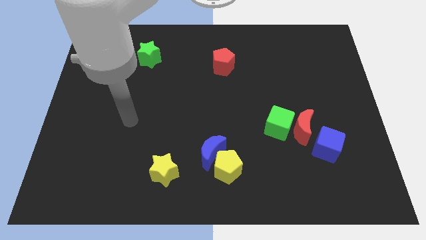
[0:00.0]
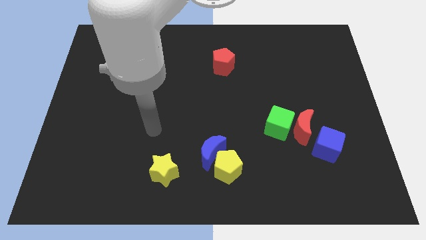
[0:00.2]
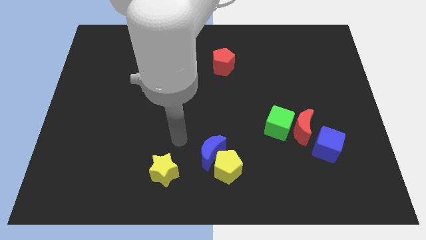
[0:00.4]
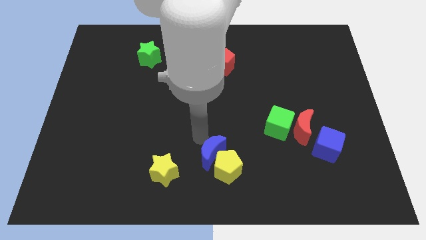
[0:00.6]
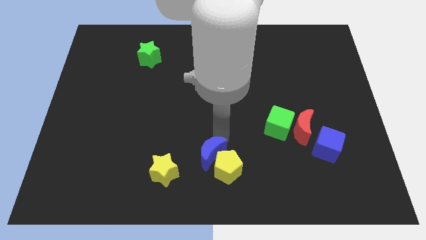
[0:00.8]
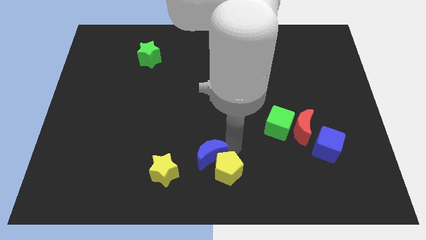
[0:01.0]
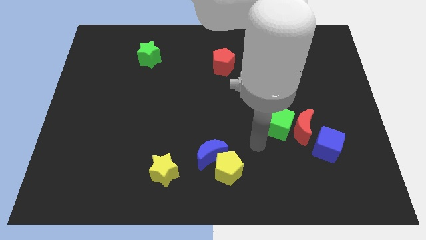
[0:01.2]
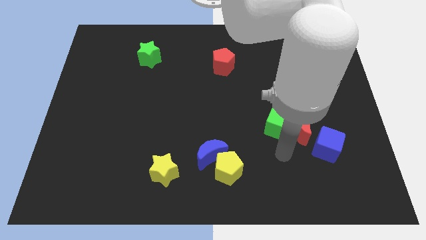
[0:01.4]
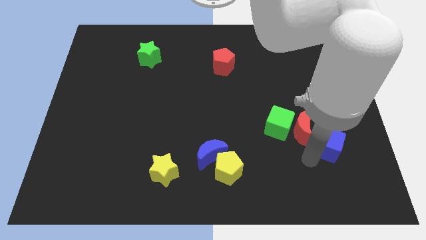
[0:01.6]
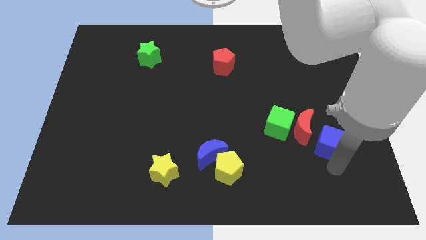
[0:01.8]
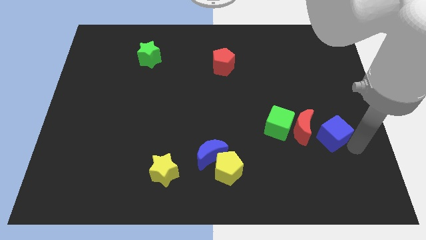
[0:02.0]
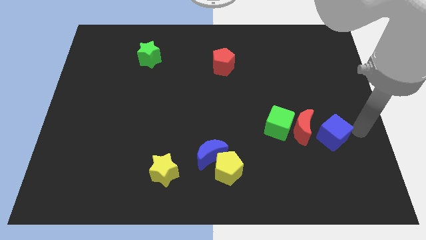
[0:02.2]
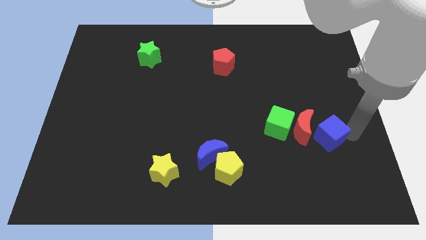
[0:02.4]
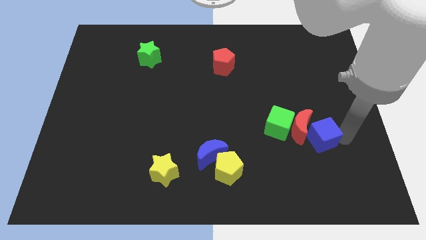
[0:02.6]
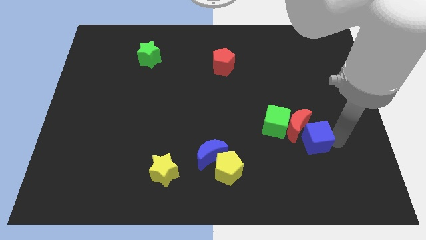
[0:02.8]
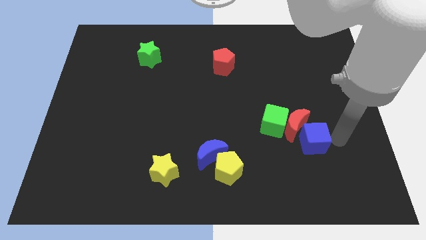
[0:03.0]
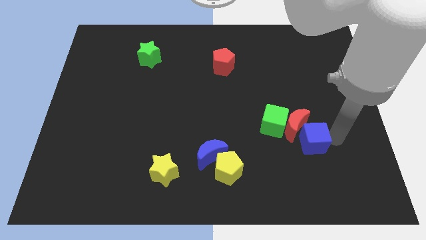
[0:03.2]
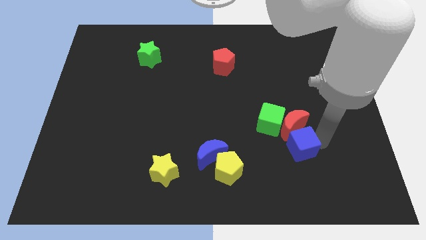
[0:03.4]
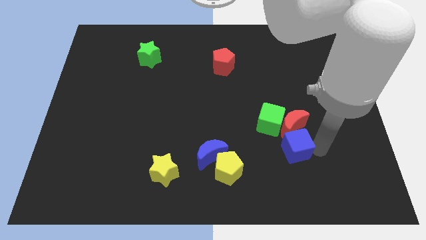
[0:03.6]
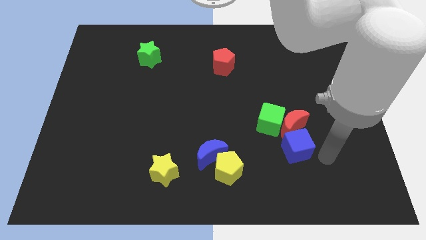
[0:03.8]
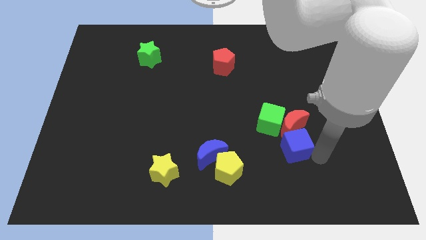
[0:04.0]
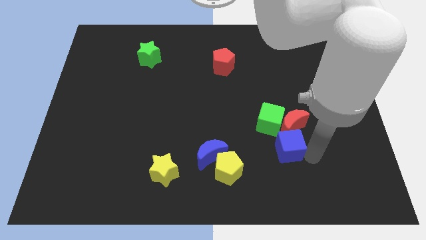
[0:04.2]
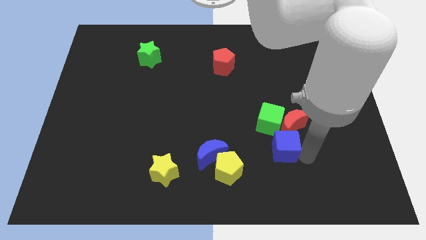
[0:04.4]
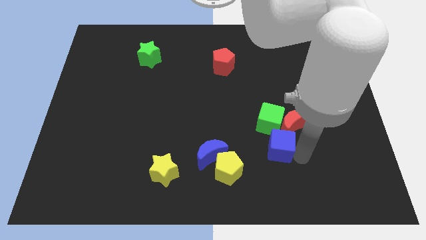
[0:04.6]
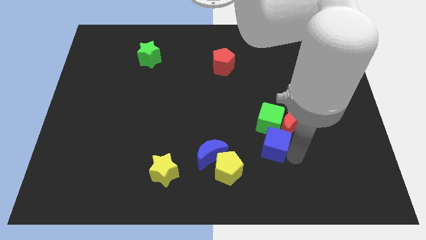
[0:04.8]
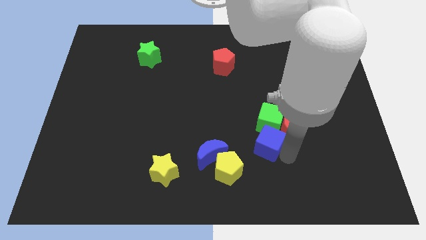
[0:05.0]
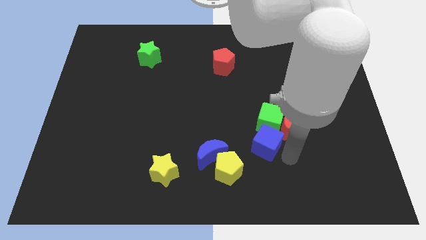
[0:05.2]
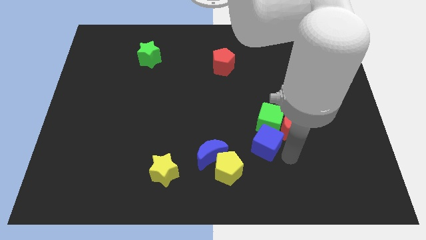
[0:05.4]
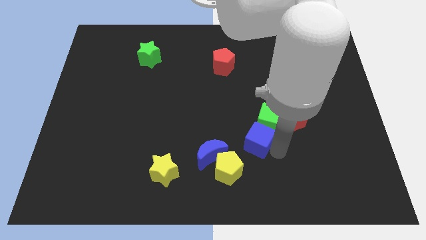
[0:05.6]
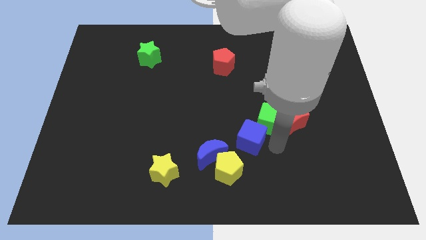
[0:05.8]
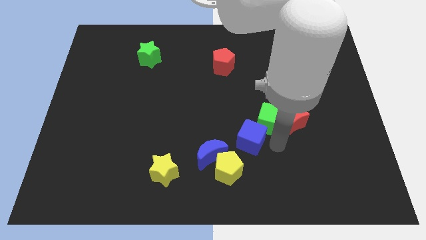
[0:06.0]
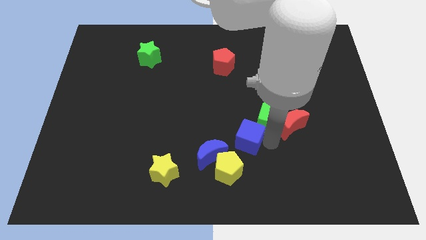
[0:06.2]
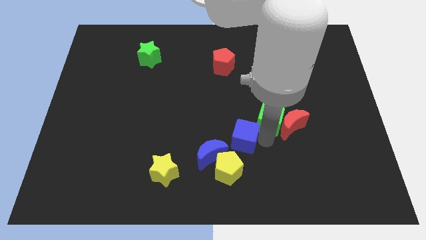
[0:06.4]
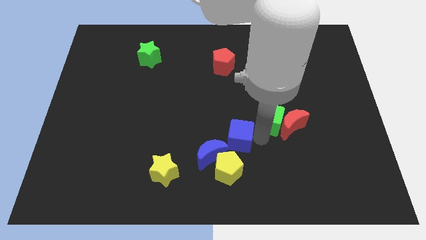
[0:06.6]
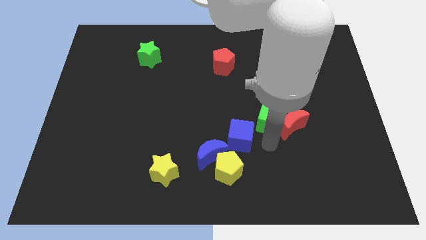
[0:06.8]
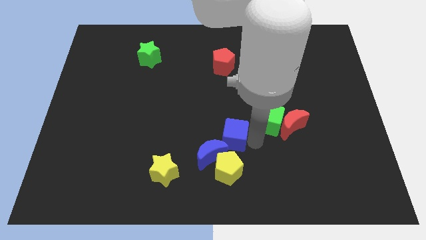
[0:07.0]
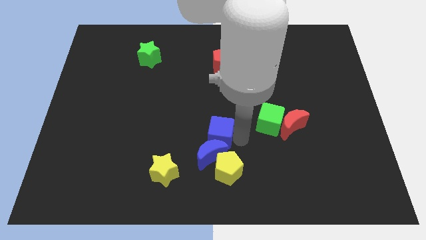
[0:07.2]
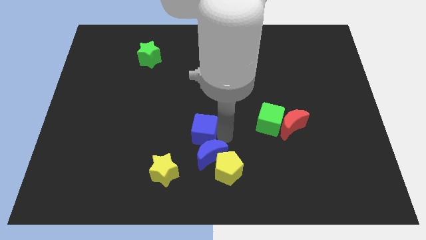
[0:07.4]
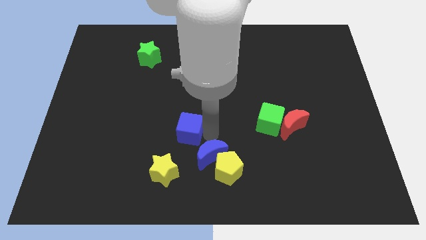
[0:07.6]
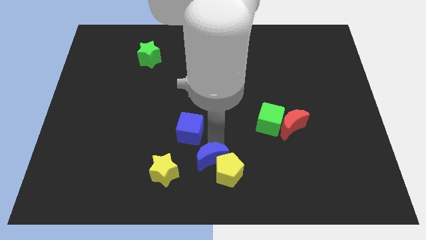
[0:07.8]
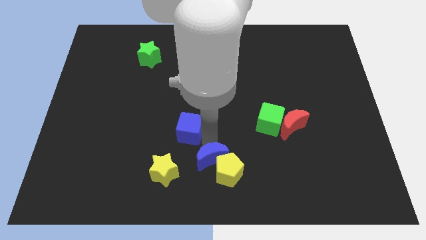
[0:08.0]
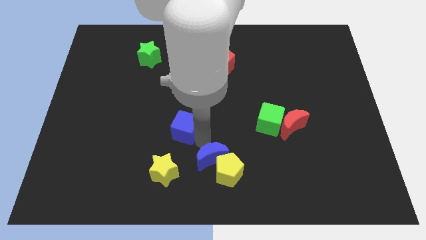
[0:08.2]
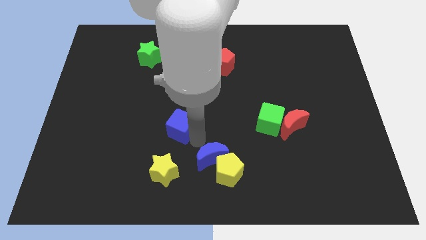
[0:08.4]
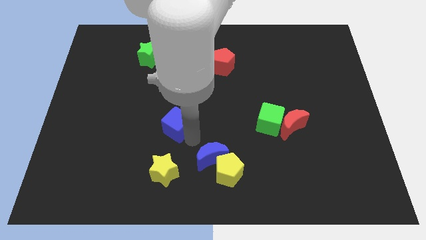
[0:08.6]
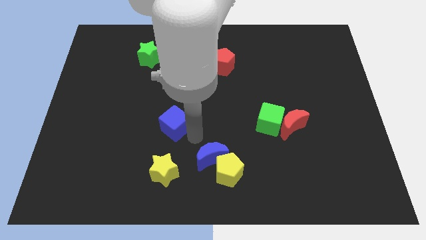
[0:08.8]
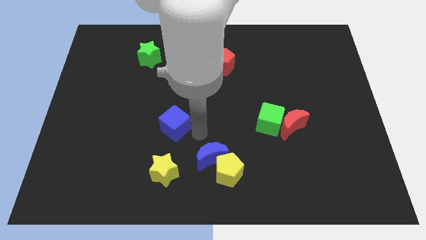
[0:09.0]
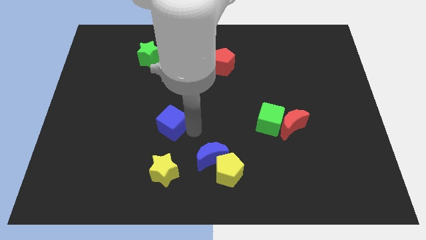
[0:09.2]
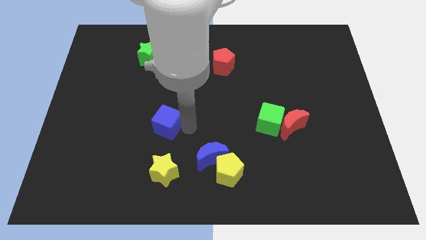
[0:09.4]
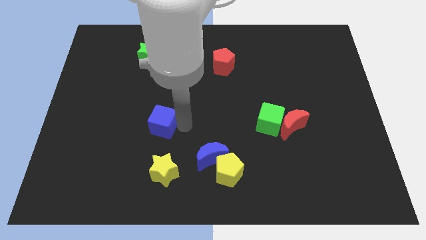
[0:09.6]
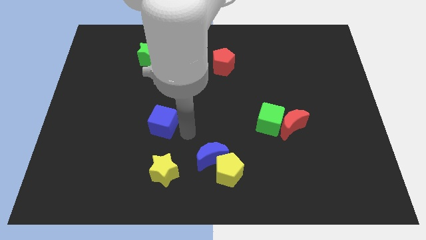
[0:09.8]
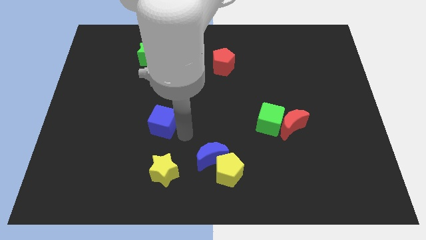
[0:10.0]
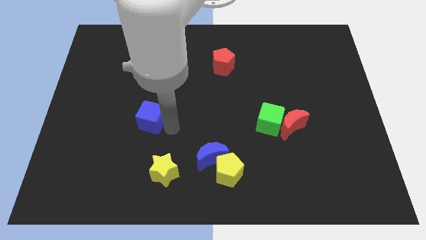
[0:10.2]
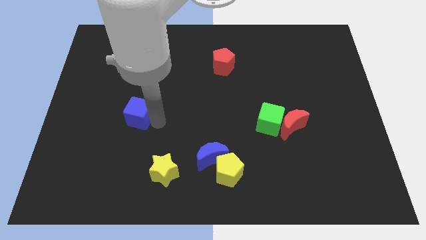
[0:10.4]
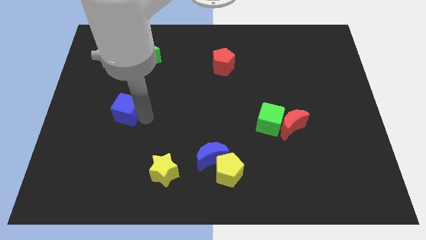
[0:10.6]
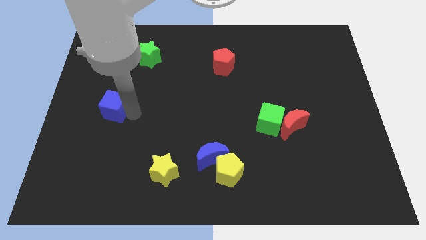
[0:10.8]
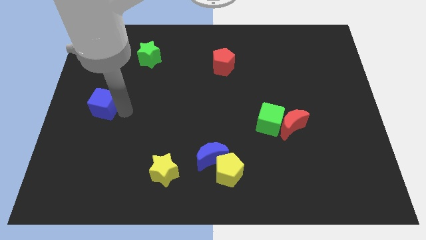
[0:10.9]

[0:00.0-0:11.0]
slide the blue cube to the left side

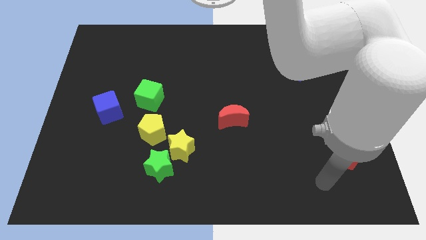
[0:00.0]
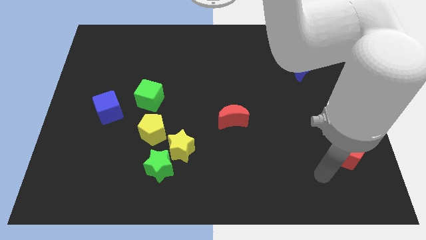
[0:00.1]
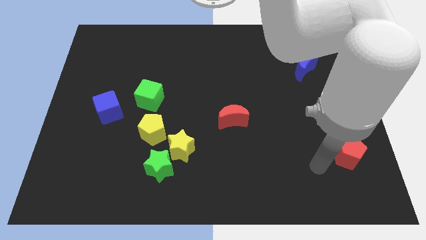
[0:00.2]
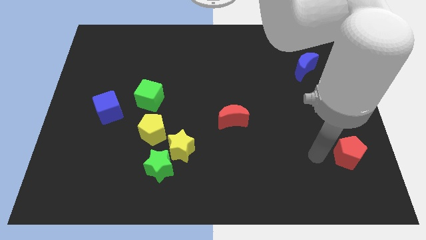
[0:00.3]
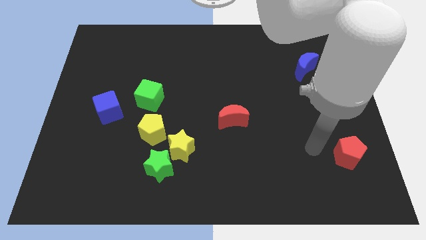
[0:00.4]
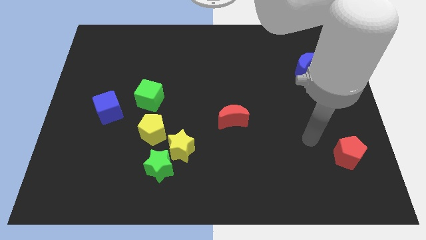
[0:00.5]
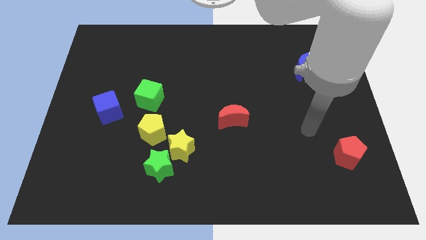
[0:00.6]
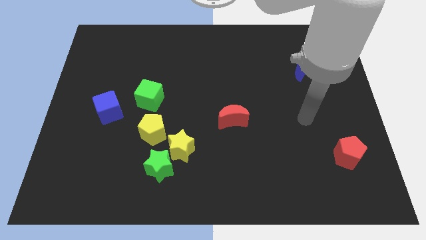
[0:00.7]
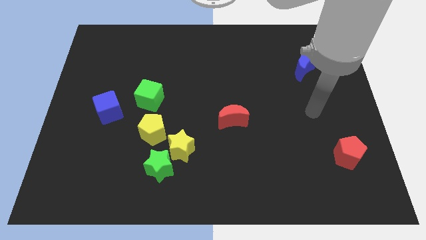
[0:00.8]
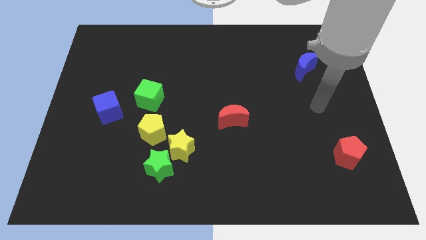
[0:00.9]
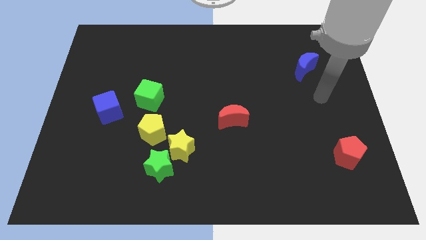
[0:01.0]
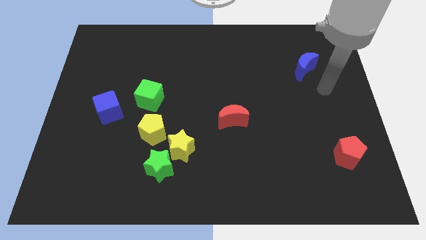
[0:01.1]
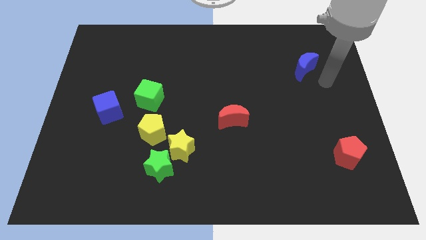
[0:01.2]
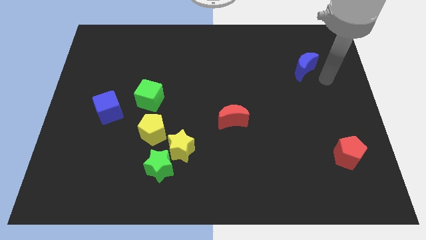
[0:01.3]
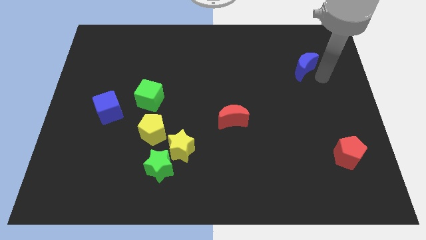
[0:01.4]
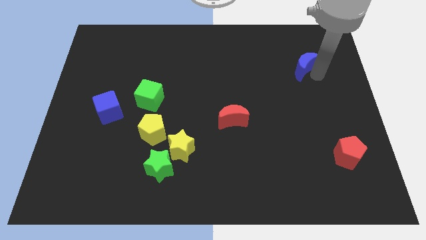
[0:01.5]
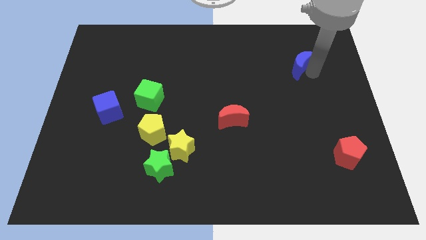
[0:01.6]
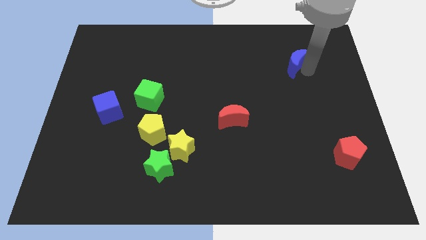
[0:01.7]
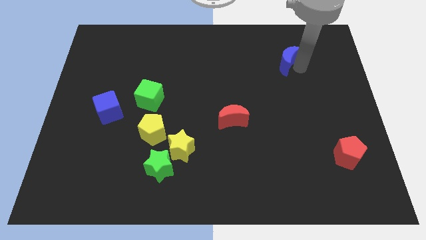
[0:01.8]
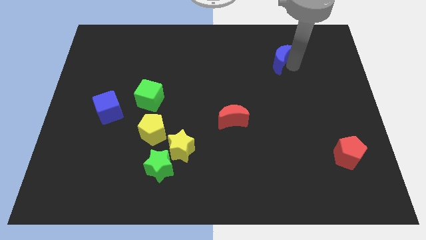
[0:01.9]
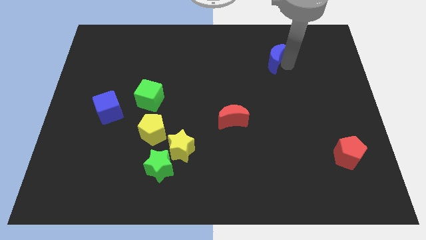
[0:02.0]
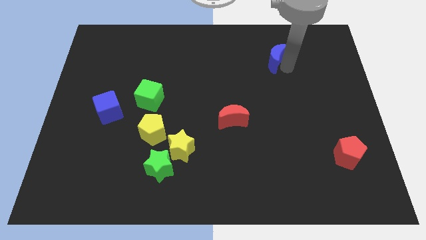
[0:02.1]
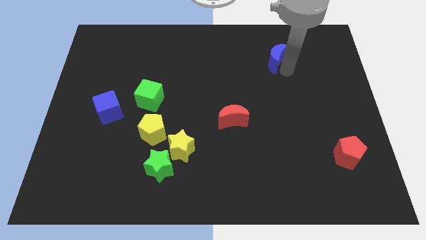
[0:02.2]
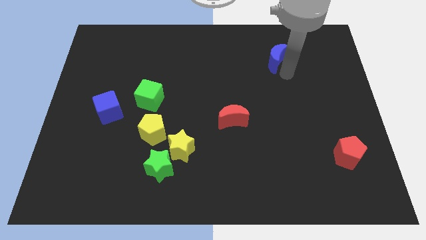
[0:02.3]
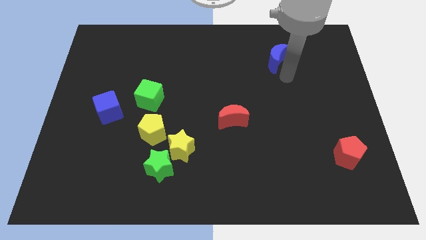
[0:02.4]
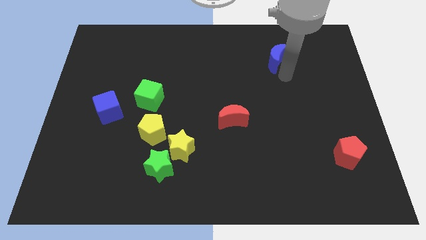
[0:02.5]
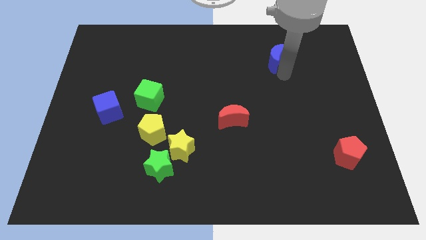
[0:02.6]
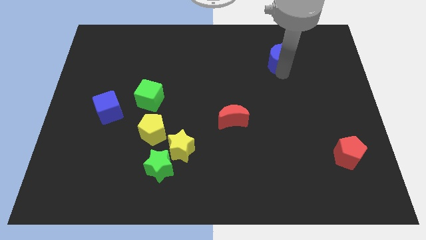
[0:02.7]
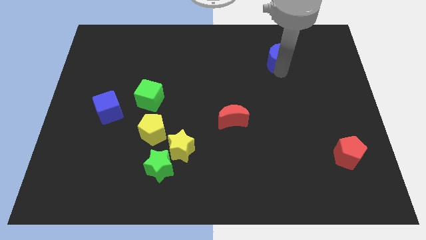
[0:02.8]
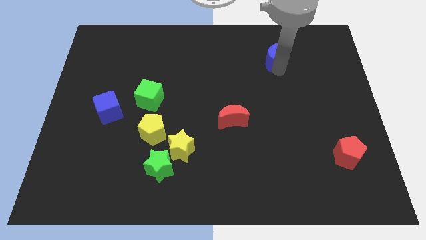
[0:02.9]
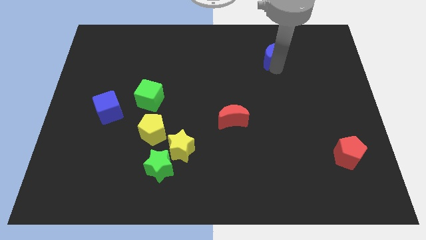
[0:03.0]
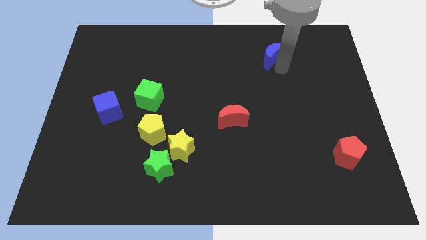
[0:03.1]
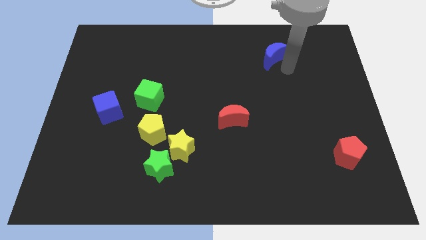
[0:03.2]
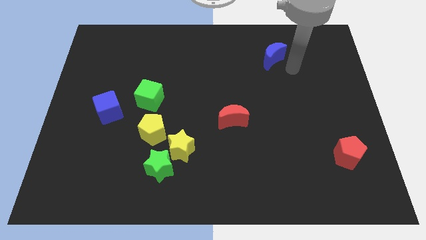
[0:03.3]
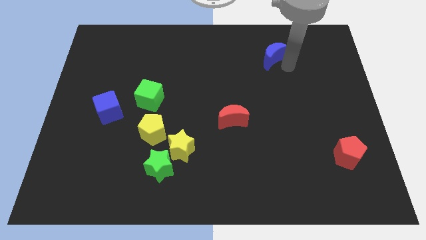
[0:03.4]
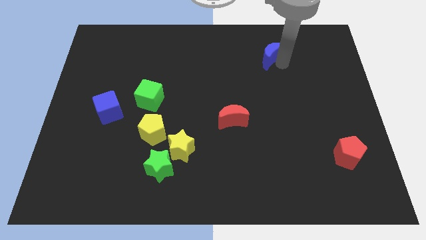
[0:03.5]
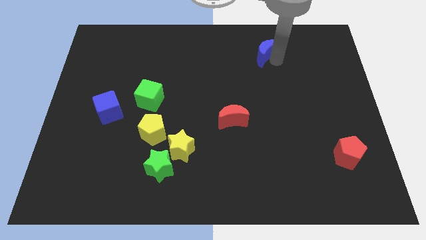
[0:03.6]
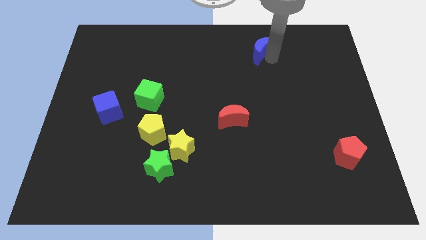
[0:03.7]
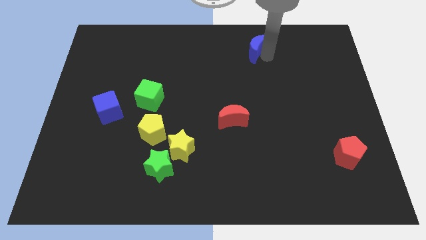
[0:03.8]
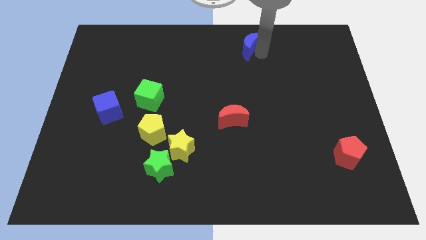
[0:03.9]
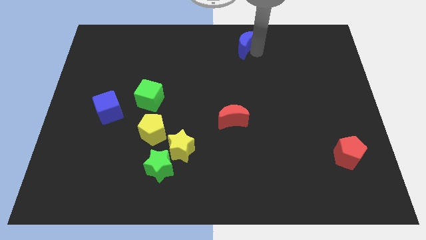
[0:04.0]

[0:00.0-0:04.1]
push the blue moon to the top
